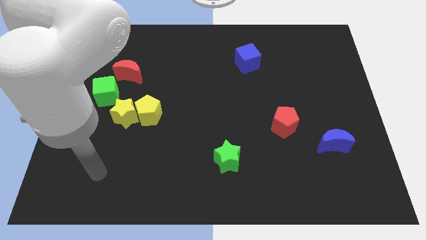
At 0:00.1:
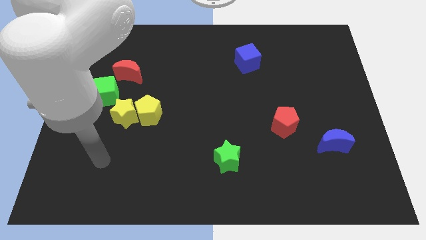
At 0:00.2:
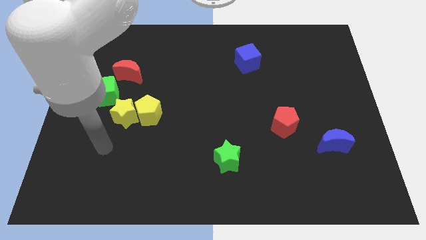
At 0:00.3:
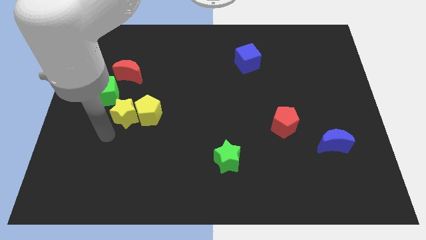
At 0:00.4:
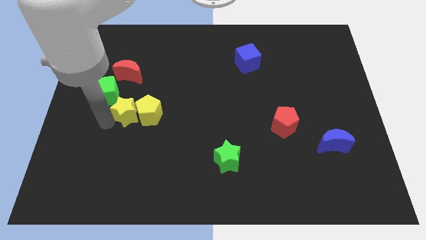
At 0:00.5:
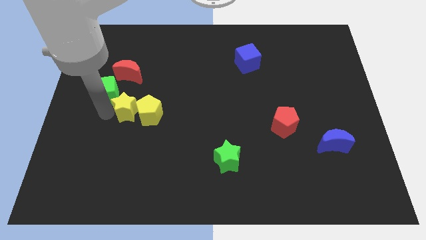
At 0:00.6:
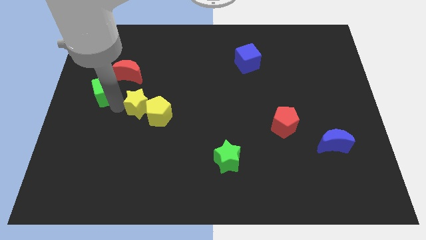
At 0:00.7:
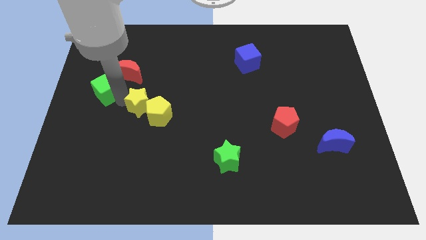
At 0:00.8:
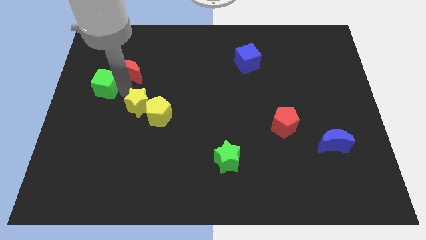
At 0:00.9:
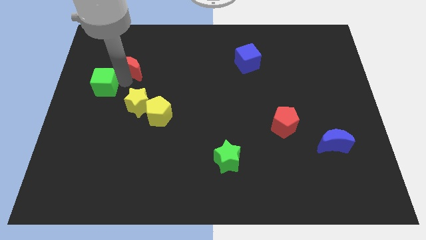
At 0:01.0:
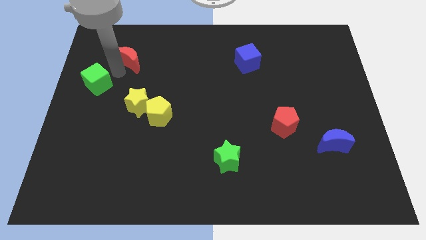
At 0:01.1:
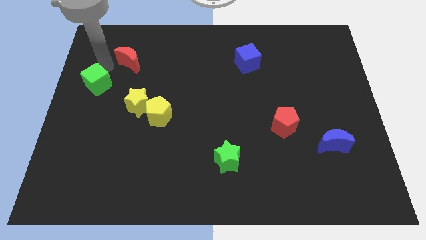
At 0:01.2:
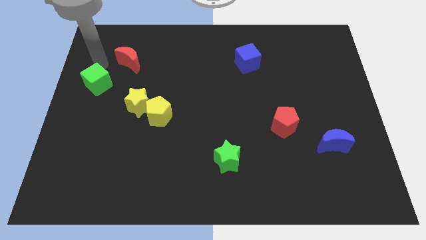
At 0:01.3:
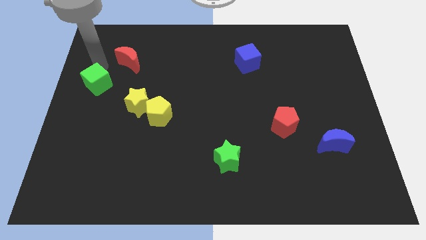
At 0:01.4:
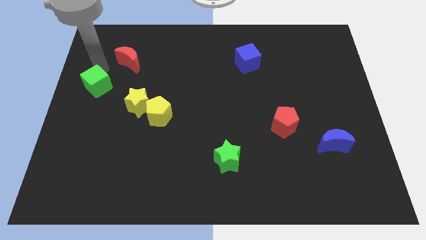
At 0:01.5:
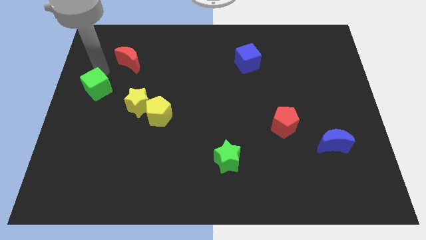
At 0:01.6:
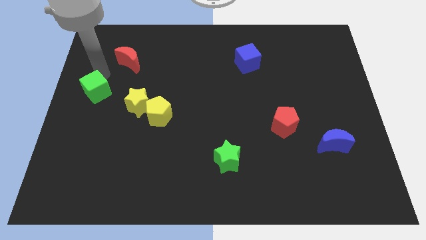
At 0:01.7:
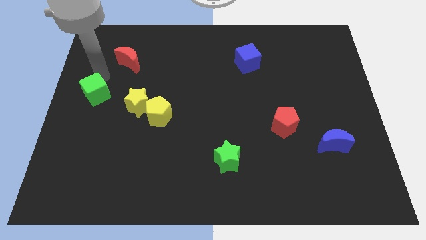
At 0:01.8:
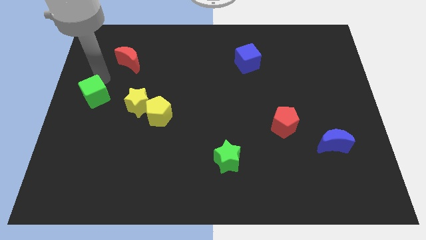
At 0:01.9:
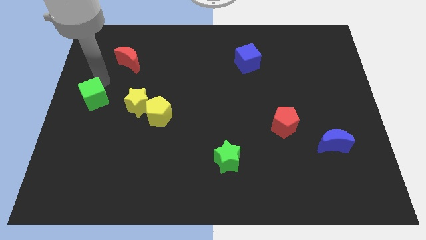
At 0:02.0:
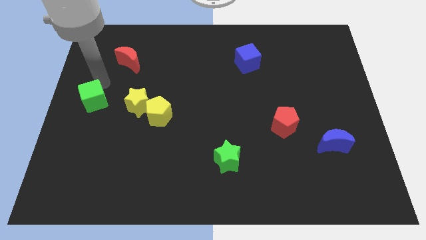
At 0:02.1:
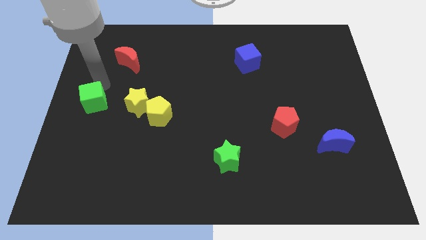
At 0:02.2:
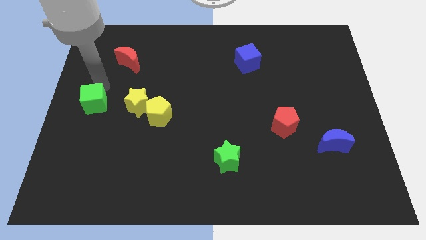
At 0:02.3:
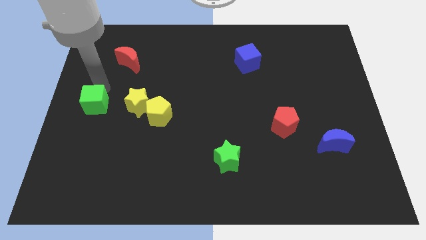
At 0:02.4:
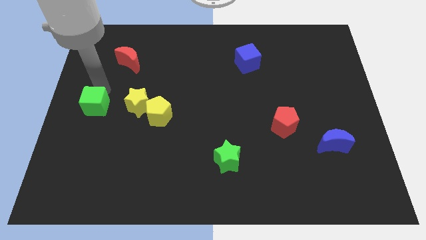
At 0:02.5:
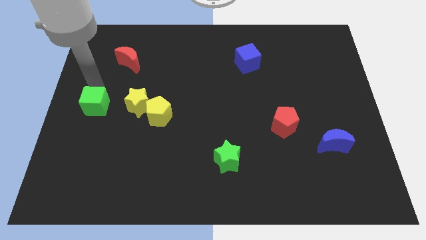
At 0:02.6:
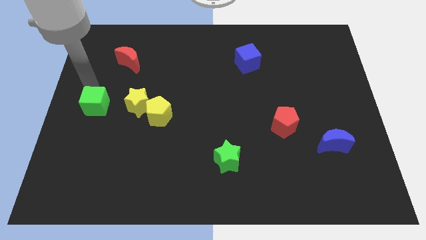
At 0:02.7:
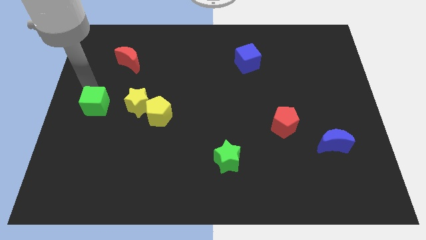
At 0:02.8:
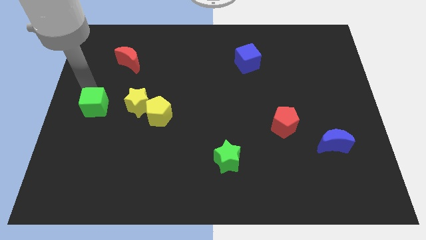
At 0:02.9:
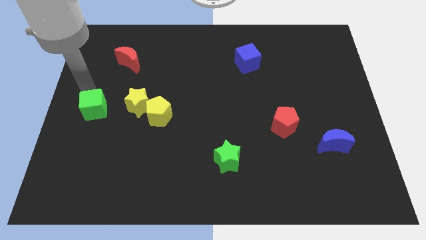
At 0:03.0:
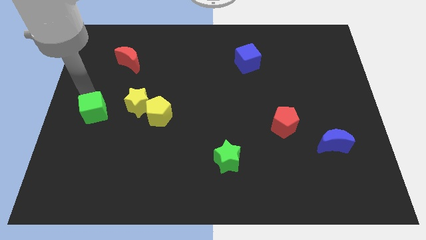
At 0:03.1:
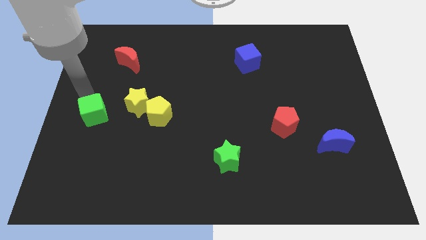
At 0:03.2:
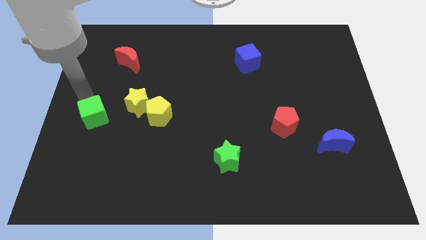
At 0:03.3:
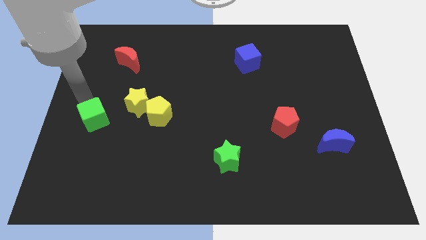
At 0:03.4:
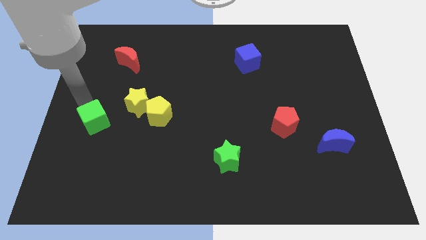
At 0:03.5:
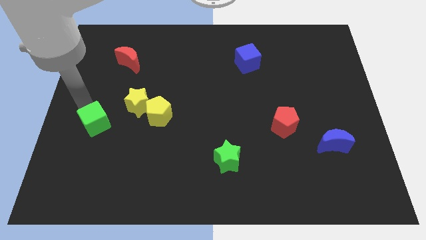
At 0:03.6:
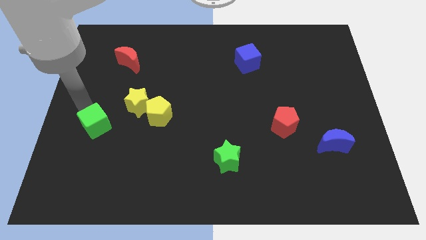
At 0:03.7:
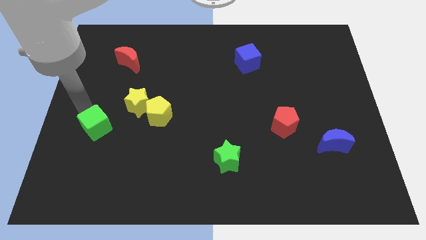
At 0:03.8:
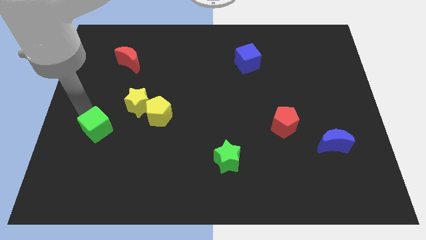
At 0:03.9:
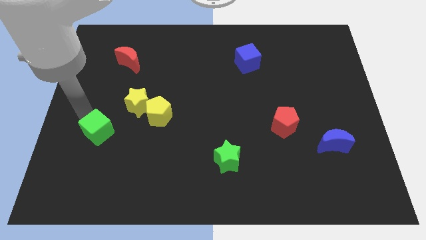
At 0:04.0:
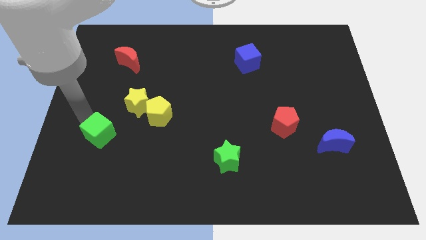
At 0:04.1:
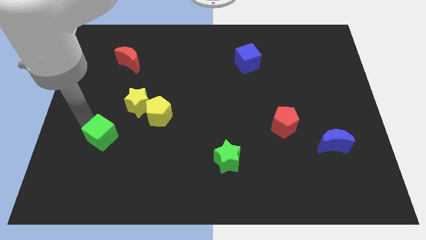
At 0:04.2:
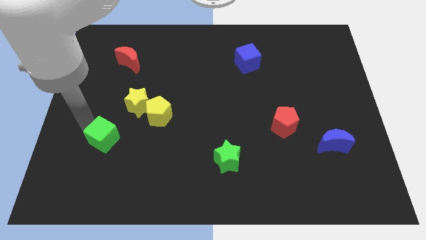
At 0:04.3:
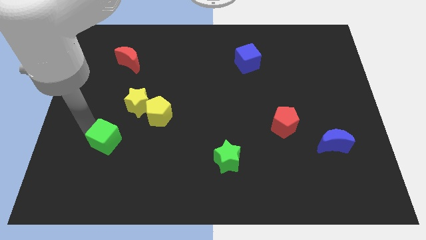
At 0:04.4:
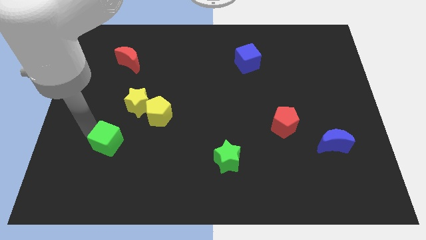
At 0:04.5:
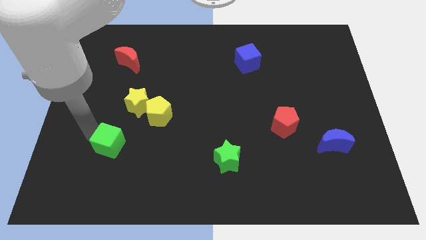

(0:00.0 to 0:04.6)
slide the green cube to the bottom side of the yellow star

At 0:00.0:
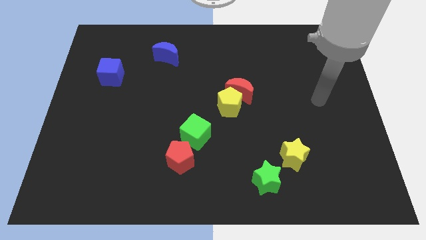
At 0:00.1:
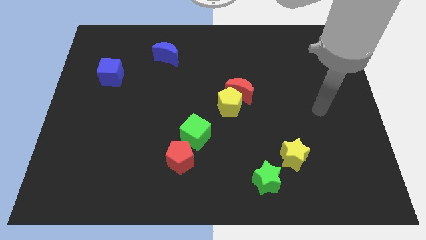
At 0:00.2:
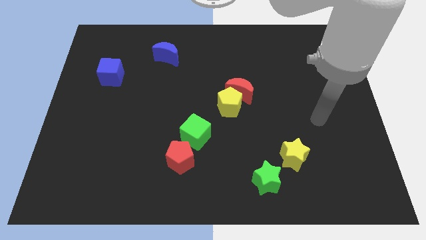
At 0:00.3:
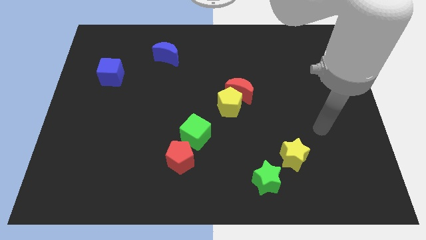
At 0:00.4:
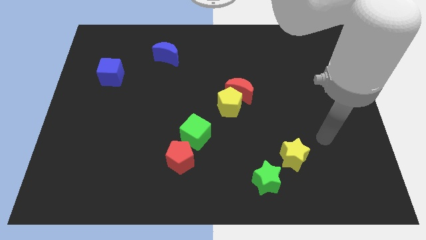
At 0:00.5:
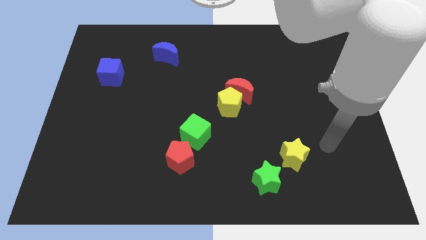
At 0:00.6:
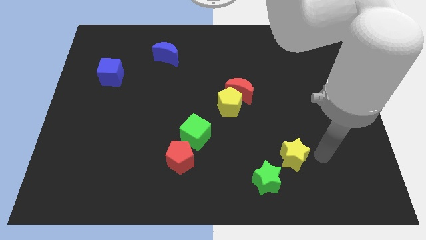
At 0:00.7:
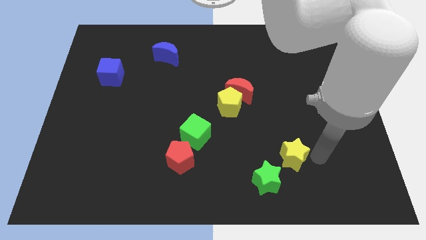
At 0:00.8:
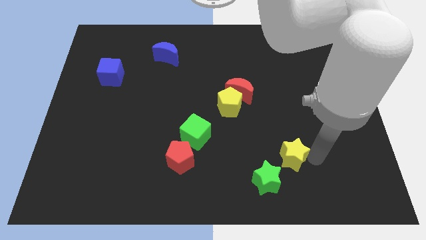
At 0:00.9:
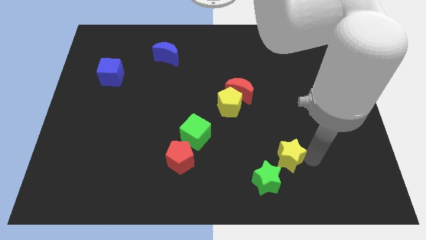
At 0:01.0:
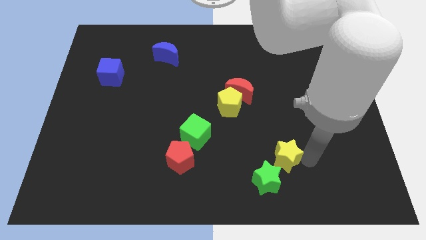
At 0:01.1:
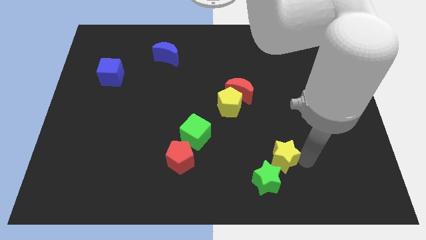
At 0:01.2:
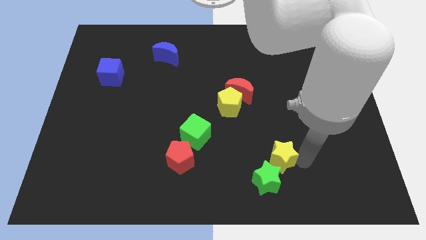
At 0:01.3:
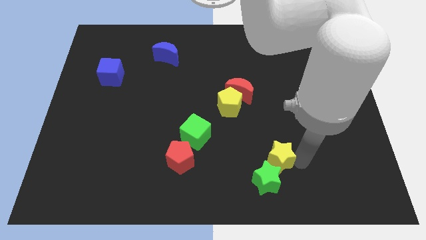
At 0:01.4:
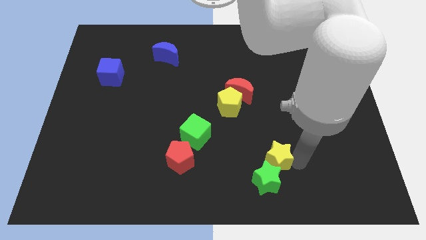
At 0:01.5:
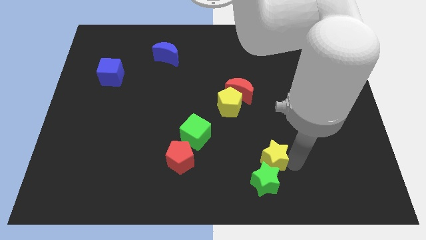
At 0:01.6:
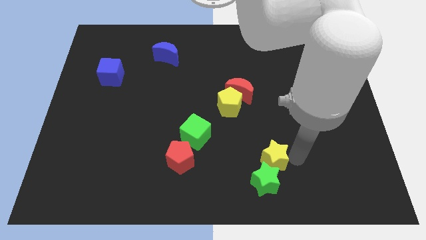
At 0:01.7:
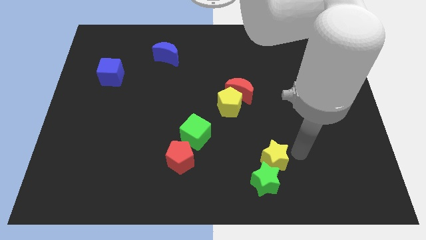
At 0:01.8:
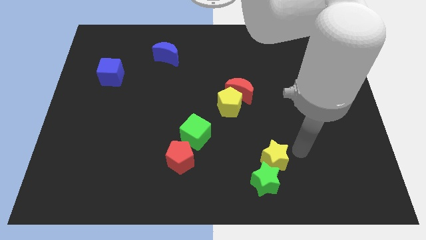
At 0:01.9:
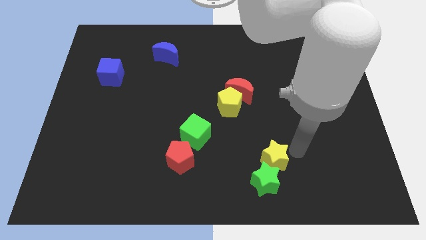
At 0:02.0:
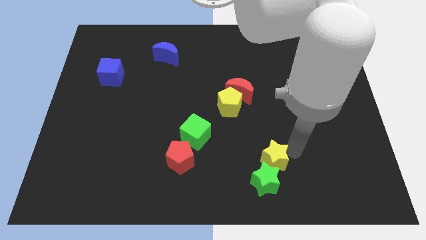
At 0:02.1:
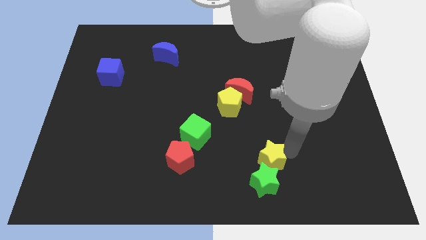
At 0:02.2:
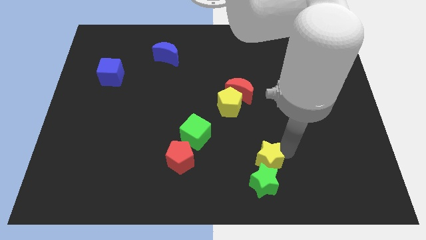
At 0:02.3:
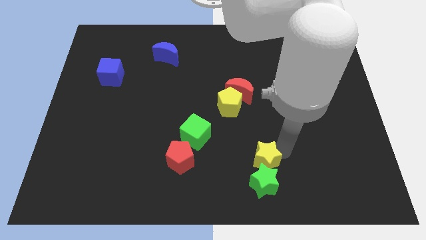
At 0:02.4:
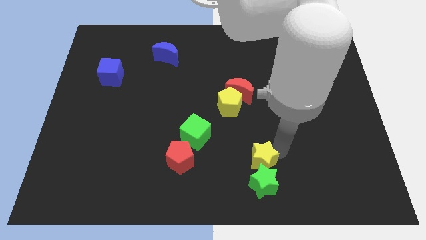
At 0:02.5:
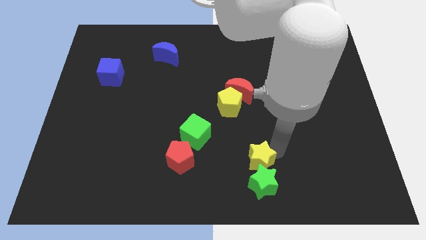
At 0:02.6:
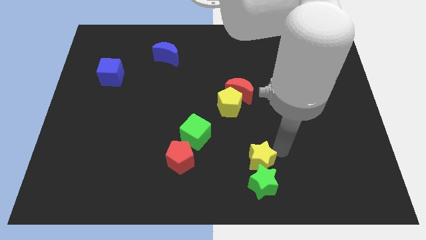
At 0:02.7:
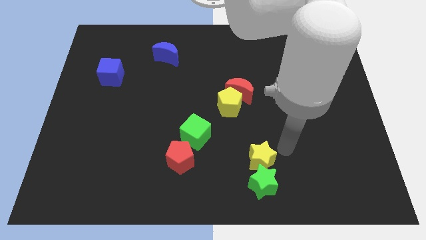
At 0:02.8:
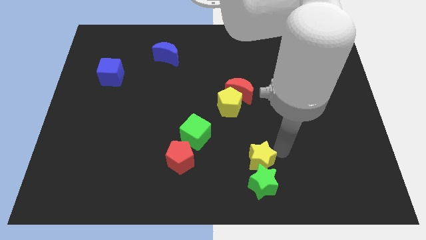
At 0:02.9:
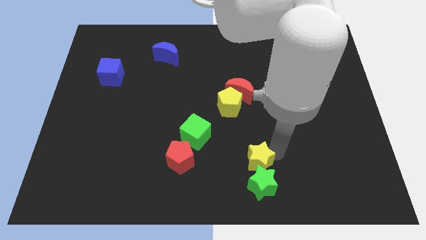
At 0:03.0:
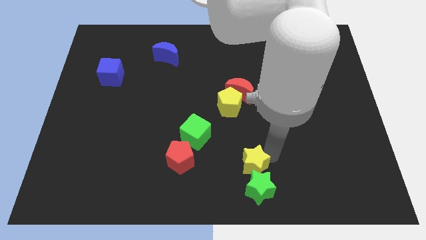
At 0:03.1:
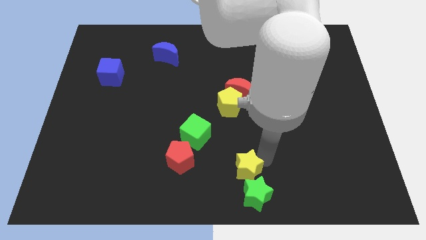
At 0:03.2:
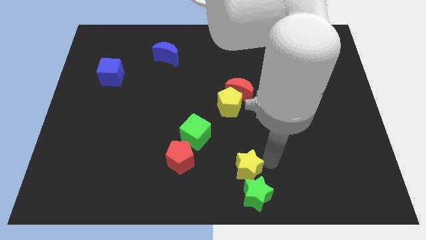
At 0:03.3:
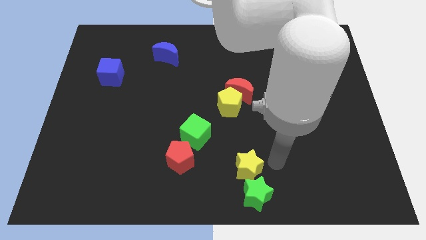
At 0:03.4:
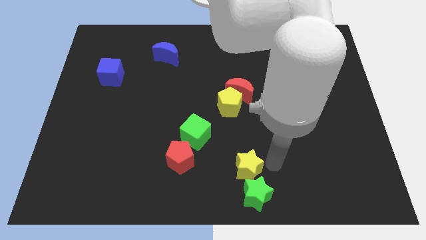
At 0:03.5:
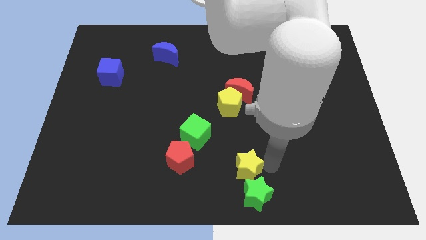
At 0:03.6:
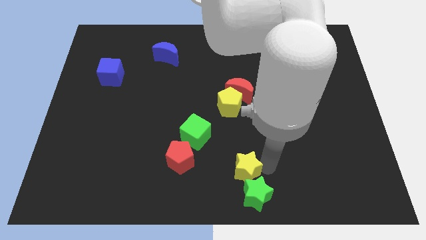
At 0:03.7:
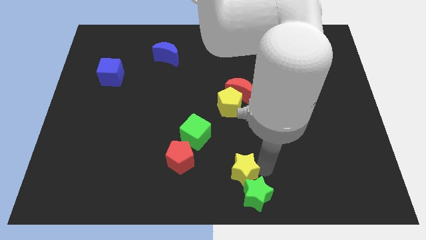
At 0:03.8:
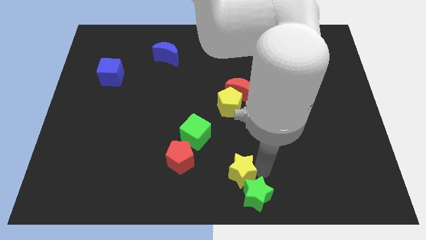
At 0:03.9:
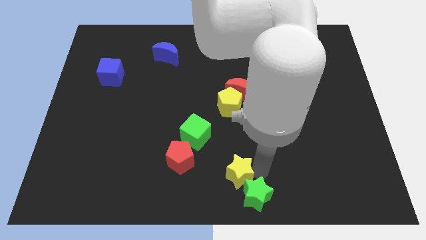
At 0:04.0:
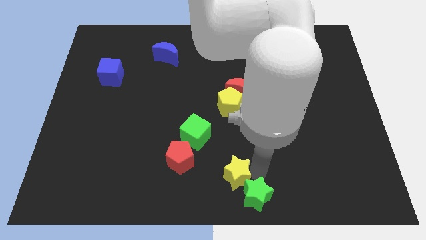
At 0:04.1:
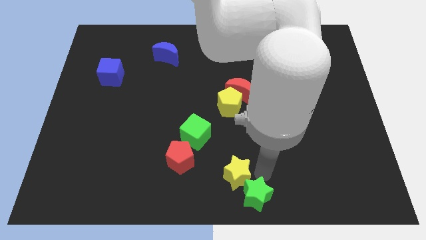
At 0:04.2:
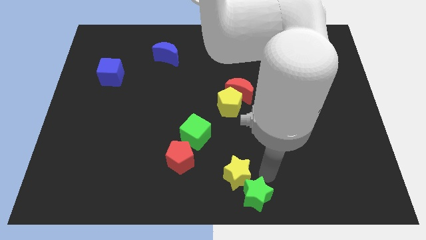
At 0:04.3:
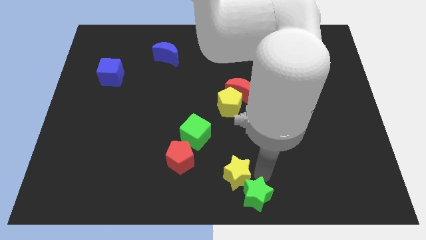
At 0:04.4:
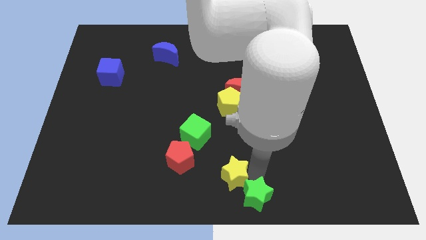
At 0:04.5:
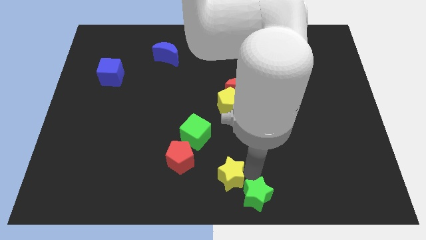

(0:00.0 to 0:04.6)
slide the yellow star to the bottom right of the red pentagon
